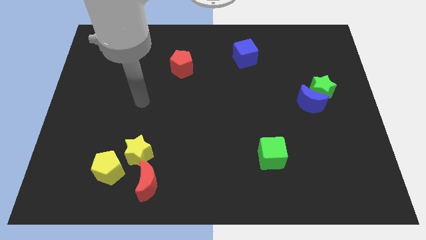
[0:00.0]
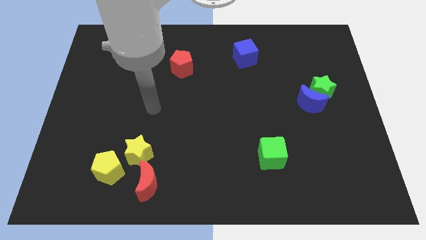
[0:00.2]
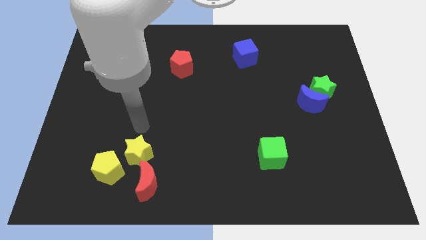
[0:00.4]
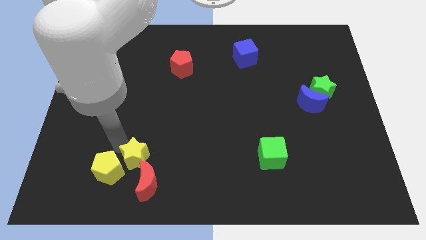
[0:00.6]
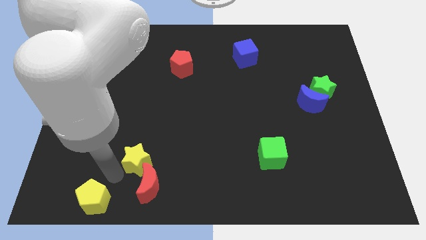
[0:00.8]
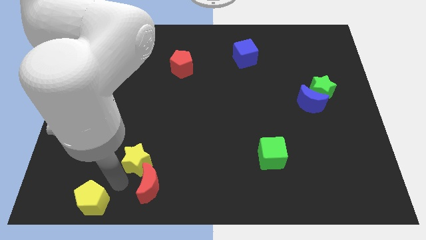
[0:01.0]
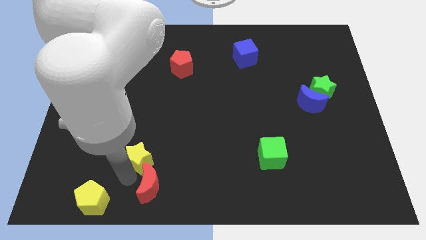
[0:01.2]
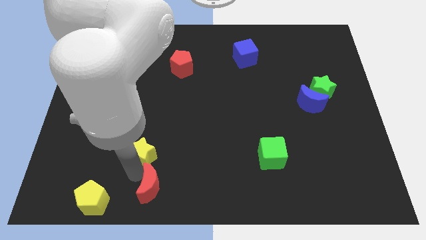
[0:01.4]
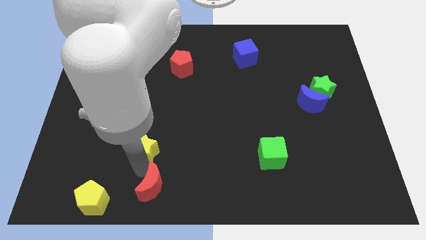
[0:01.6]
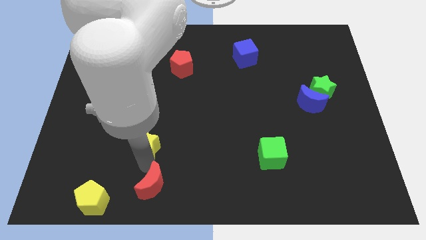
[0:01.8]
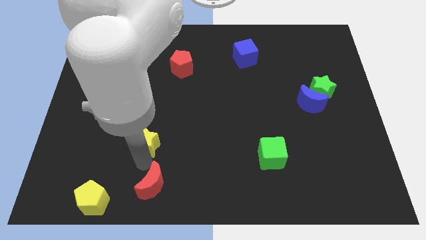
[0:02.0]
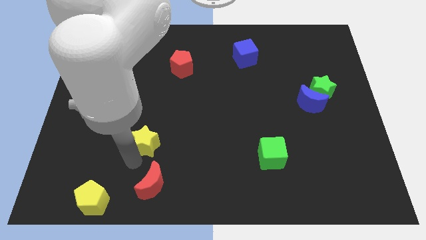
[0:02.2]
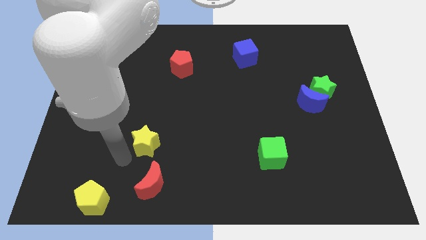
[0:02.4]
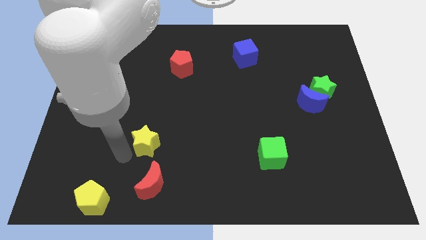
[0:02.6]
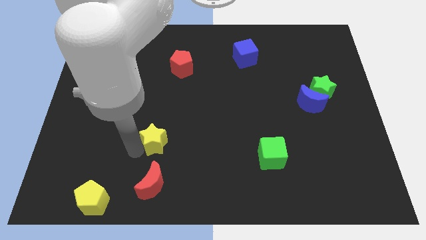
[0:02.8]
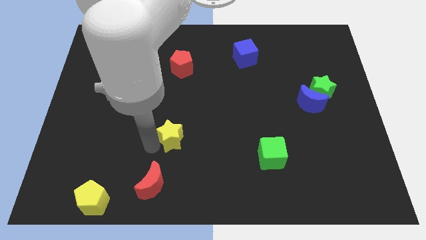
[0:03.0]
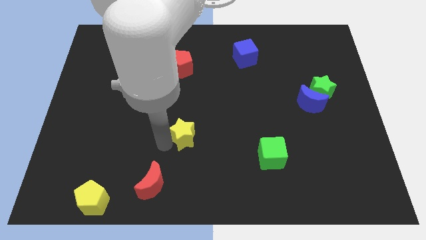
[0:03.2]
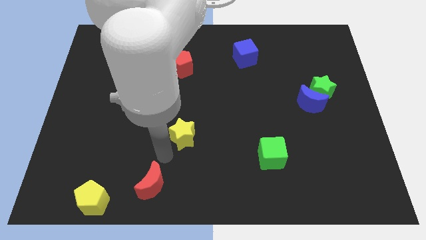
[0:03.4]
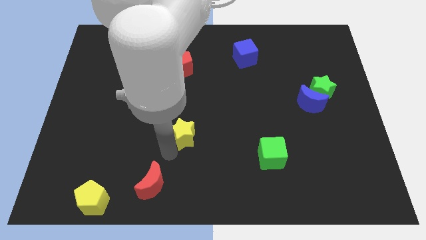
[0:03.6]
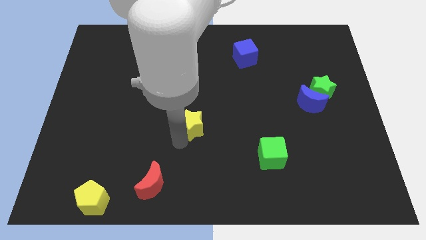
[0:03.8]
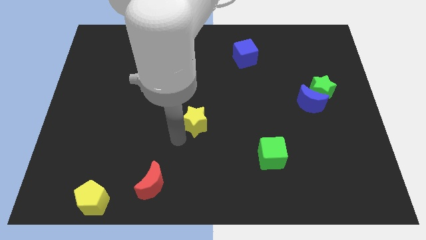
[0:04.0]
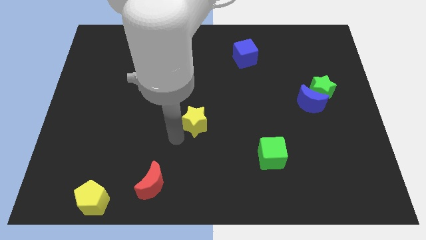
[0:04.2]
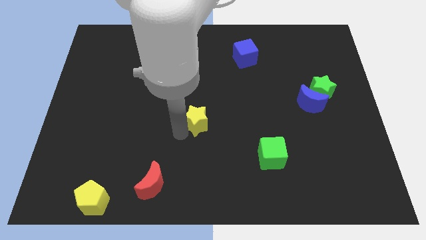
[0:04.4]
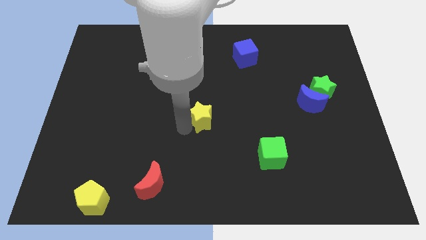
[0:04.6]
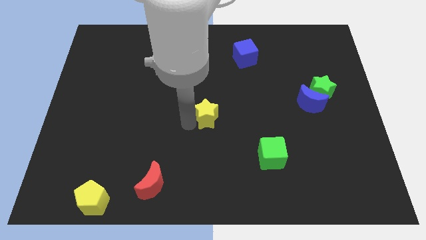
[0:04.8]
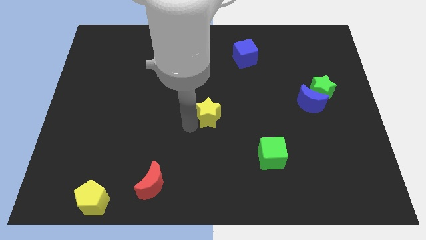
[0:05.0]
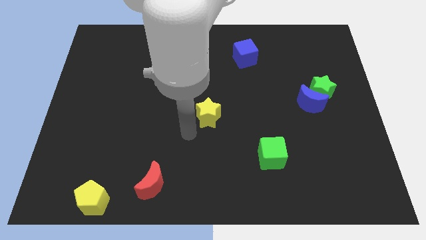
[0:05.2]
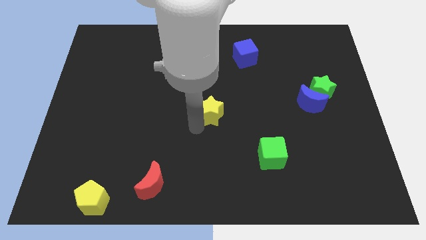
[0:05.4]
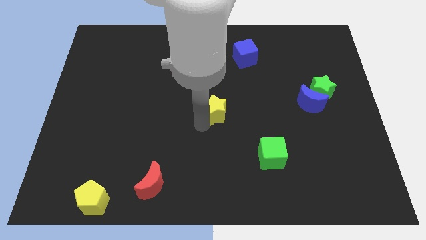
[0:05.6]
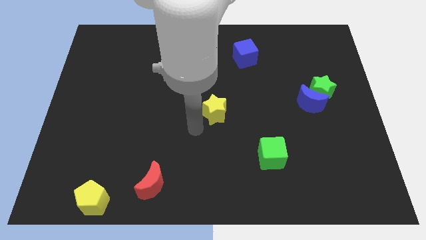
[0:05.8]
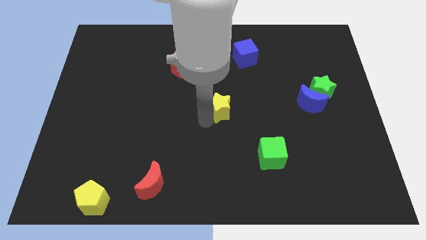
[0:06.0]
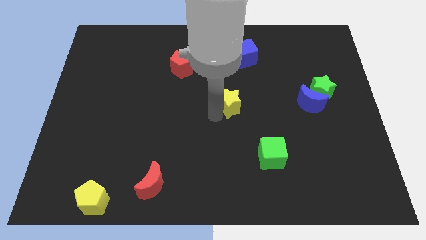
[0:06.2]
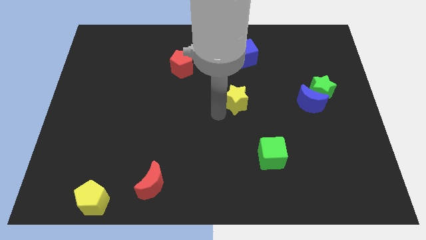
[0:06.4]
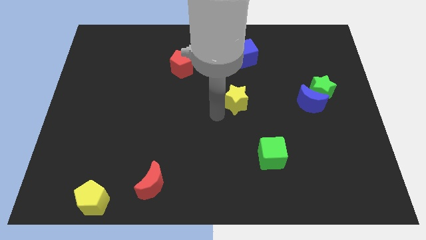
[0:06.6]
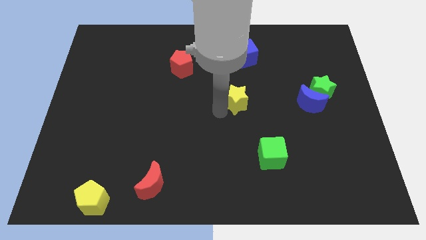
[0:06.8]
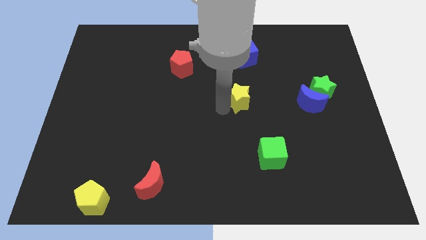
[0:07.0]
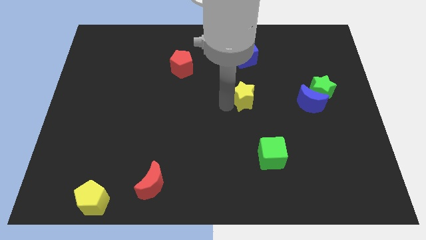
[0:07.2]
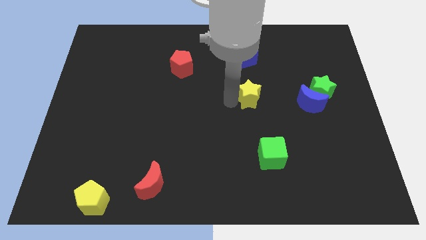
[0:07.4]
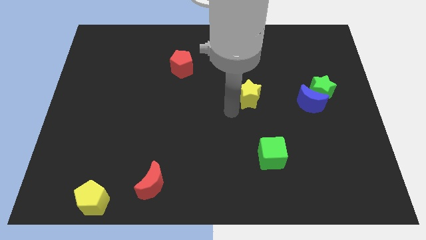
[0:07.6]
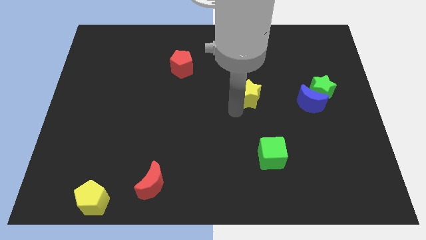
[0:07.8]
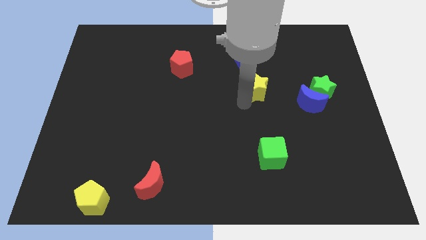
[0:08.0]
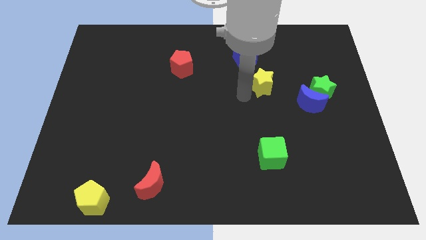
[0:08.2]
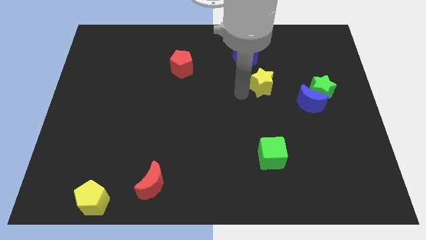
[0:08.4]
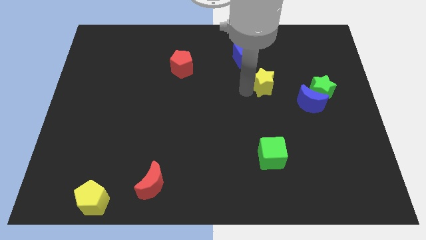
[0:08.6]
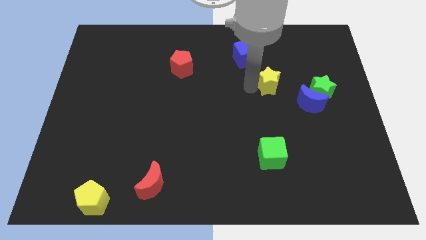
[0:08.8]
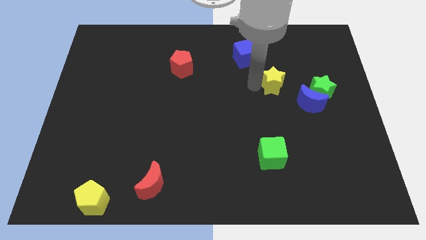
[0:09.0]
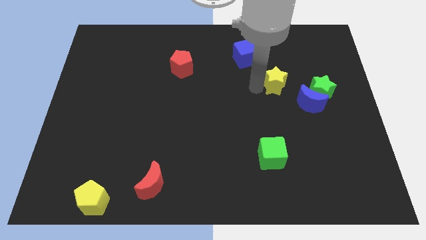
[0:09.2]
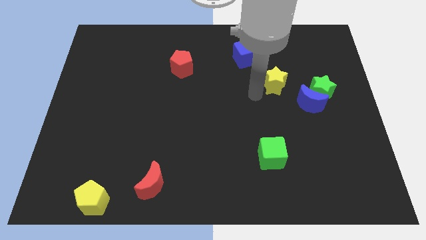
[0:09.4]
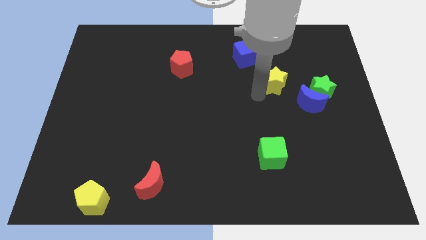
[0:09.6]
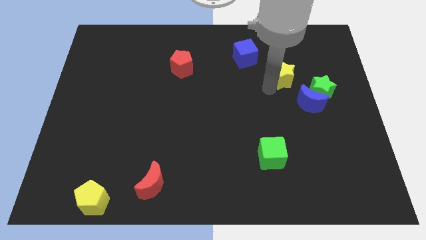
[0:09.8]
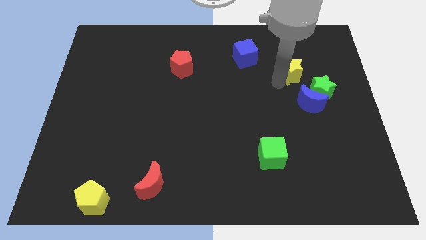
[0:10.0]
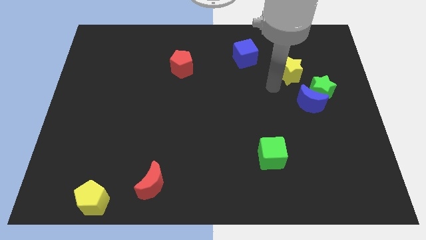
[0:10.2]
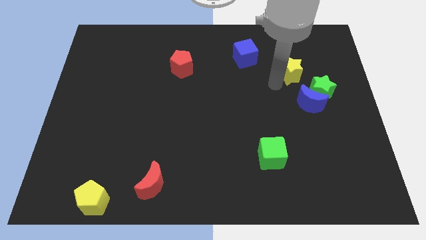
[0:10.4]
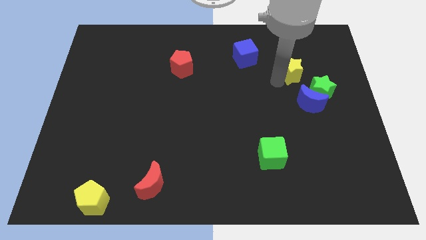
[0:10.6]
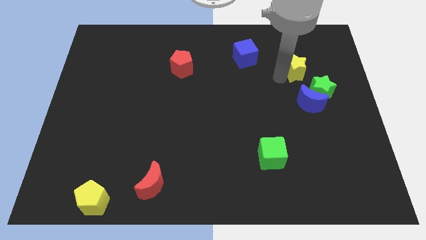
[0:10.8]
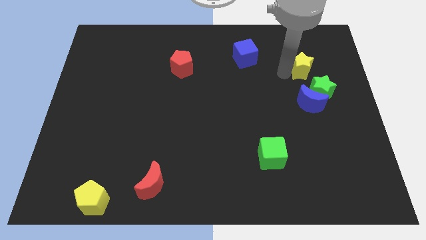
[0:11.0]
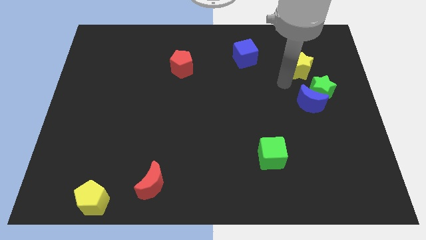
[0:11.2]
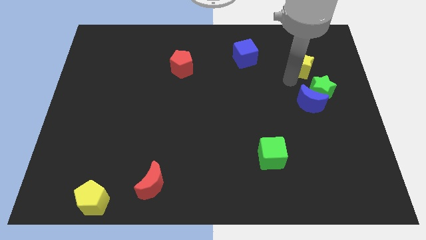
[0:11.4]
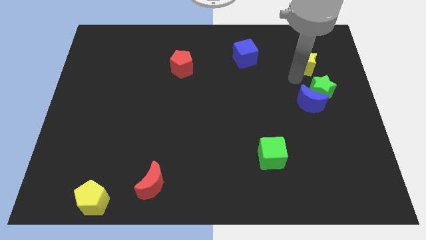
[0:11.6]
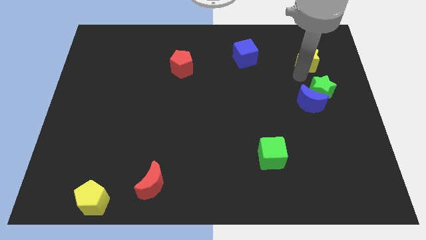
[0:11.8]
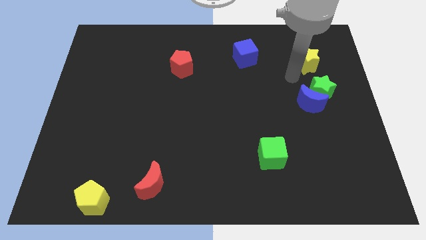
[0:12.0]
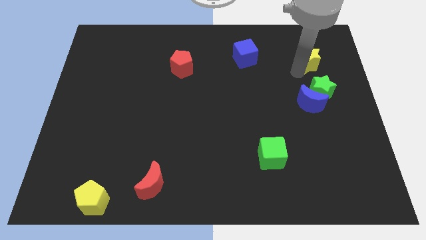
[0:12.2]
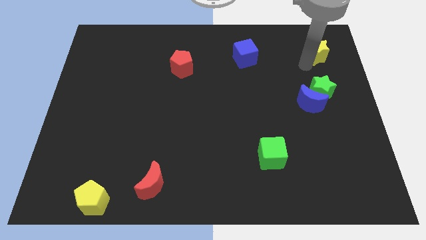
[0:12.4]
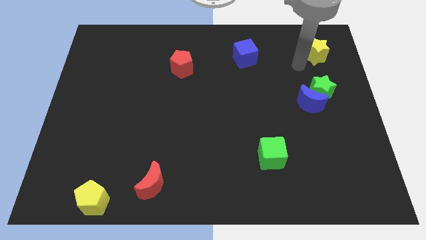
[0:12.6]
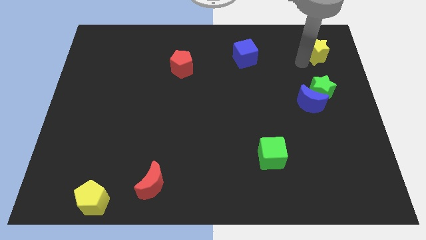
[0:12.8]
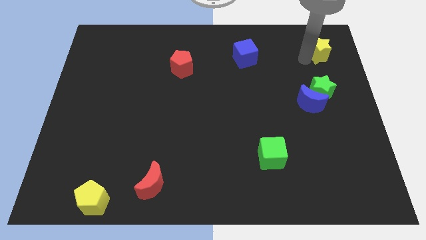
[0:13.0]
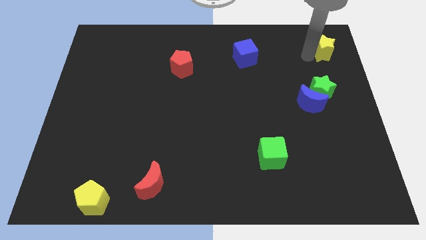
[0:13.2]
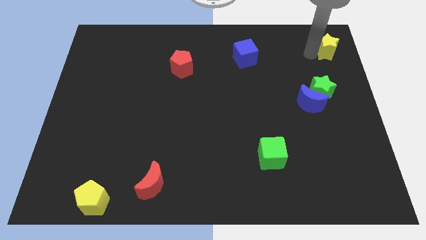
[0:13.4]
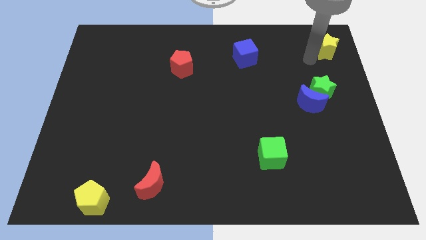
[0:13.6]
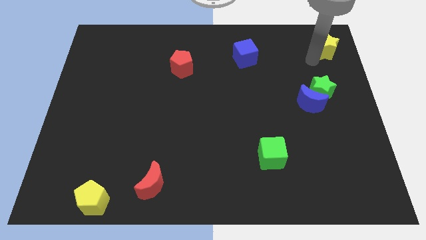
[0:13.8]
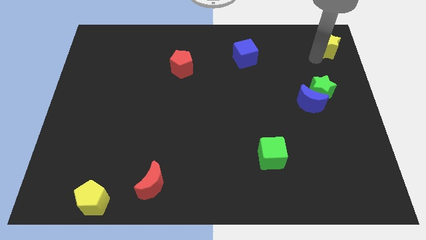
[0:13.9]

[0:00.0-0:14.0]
slide the yellow star to the top right corner
